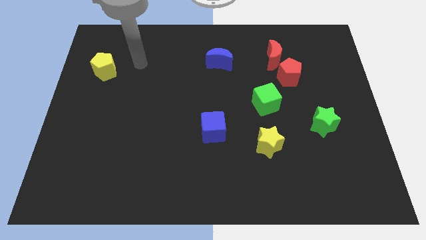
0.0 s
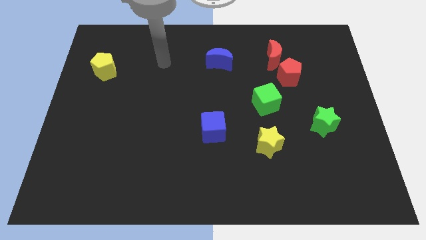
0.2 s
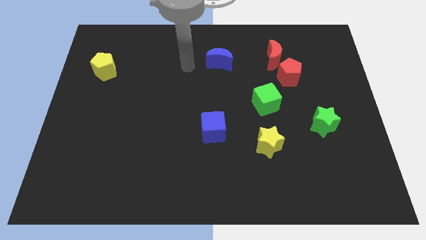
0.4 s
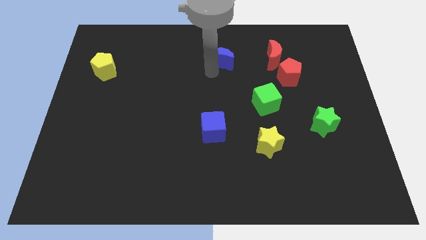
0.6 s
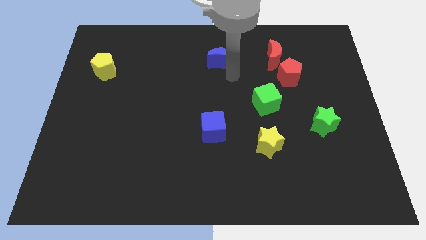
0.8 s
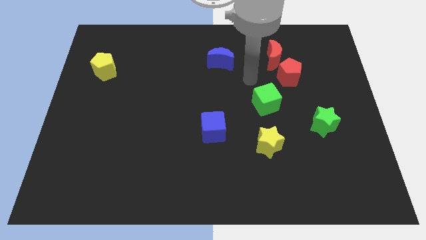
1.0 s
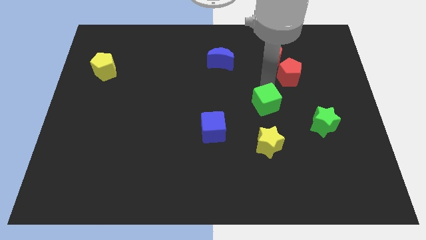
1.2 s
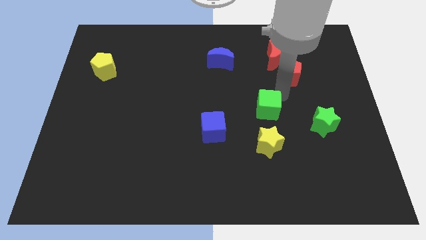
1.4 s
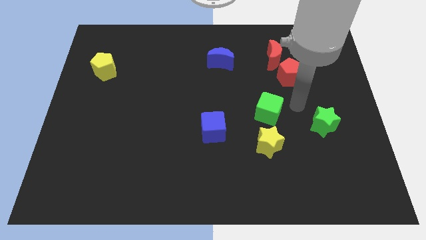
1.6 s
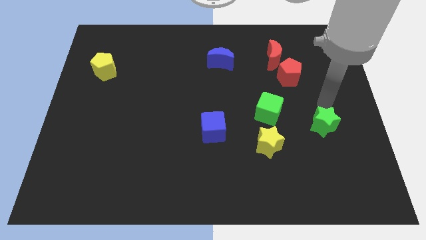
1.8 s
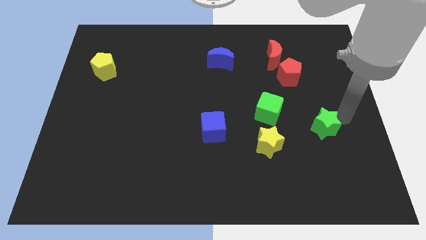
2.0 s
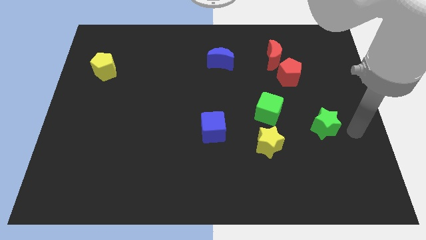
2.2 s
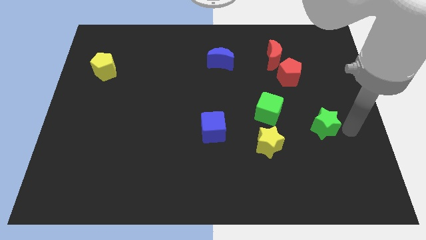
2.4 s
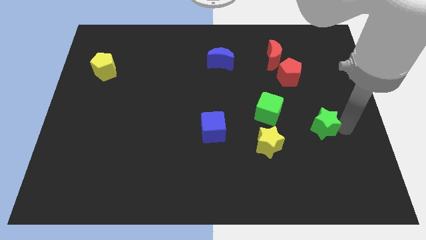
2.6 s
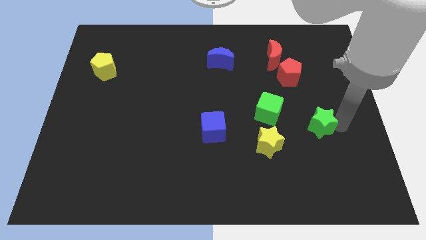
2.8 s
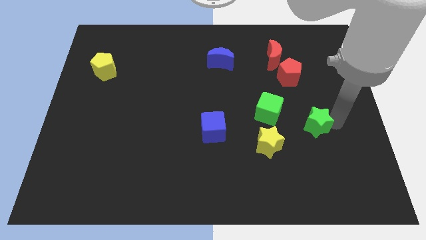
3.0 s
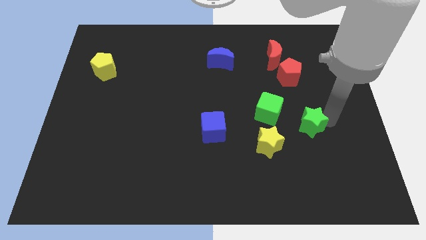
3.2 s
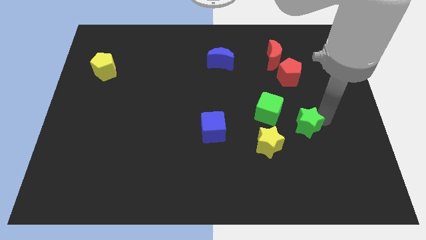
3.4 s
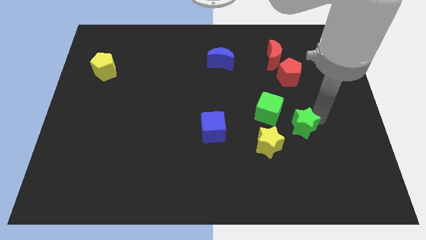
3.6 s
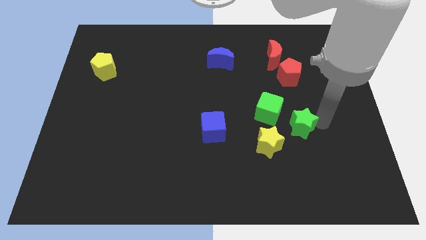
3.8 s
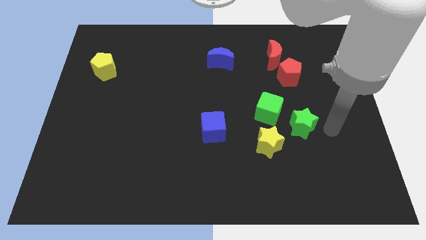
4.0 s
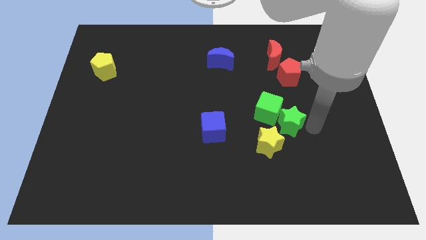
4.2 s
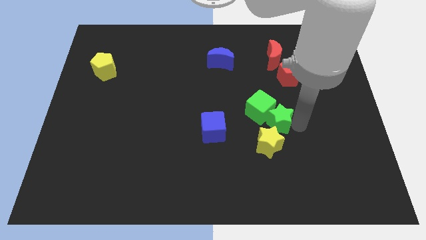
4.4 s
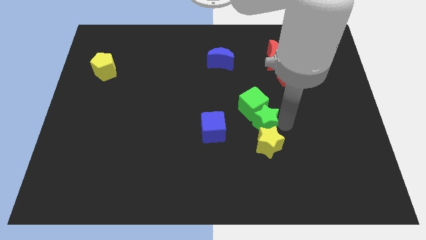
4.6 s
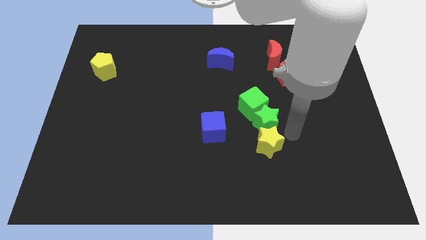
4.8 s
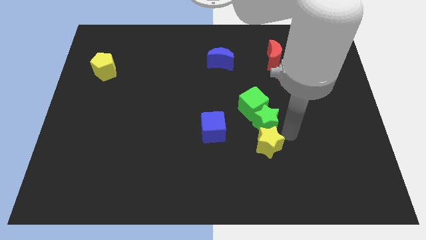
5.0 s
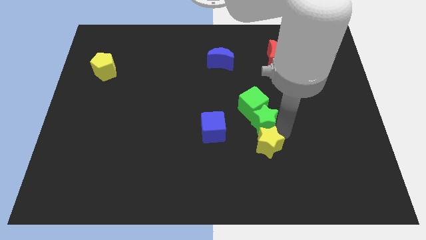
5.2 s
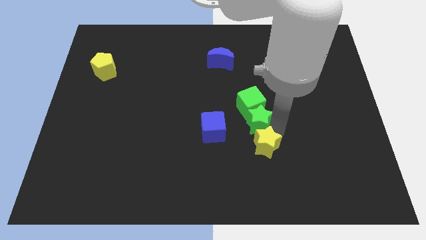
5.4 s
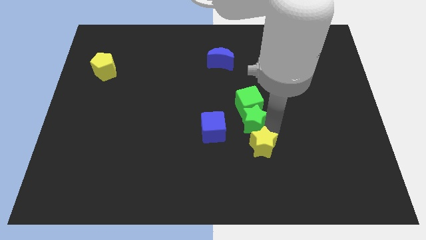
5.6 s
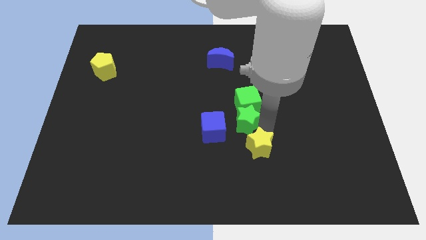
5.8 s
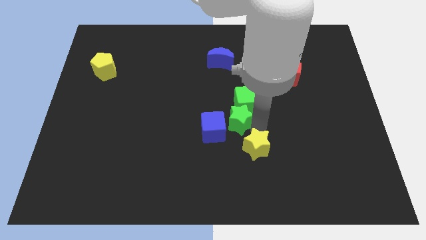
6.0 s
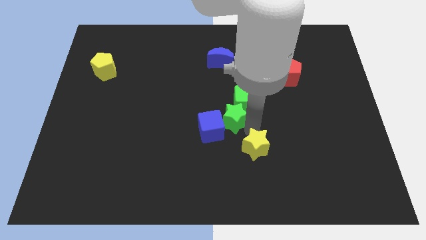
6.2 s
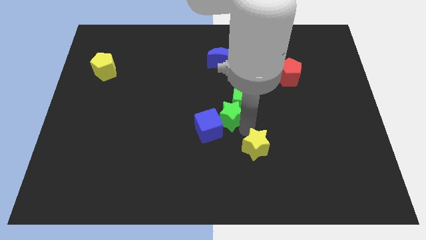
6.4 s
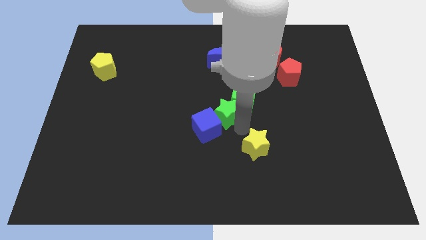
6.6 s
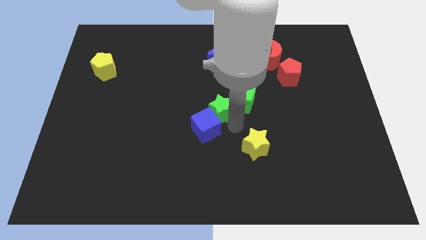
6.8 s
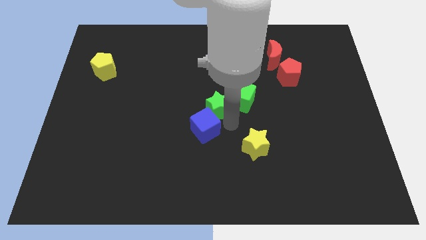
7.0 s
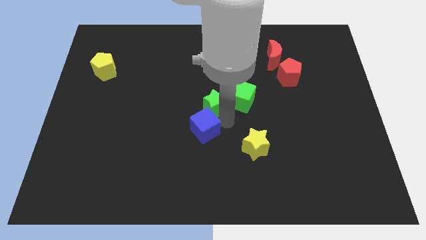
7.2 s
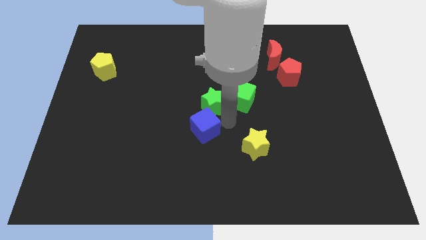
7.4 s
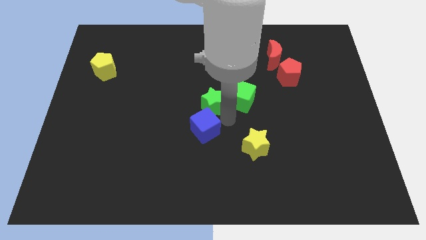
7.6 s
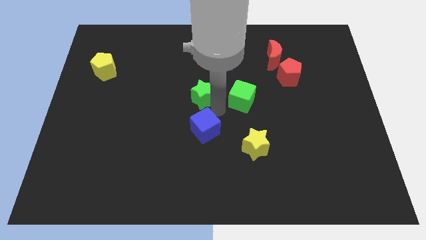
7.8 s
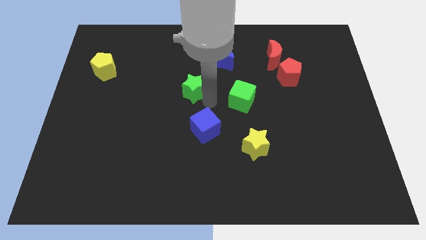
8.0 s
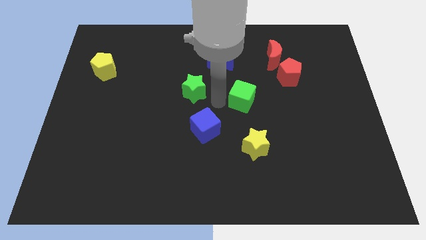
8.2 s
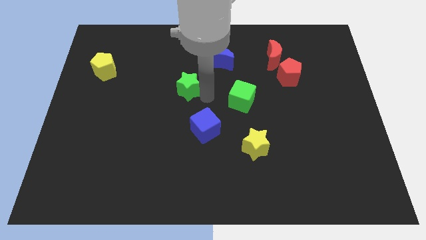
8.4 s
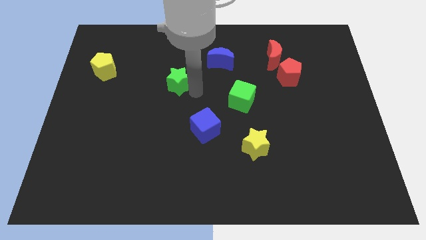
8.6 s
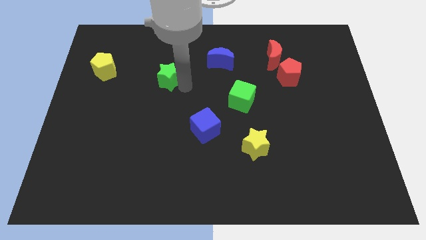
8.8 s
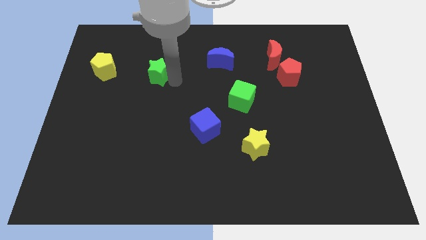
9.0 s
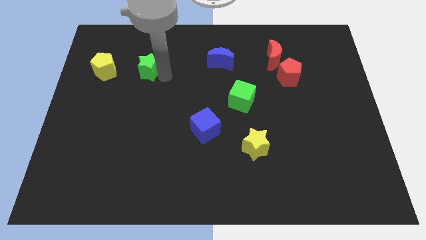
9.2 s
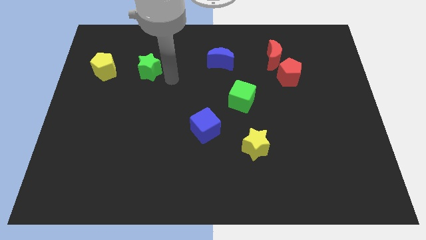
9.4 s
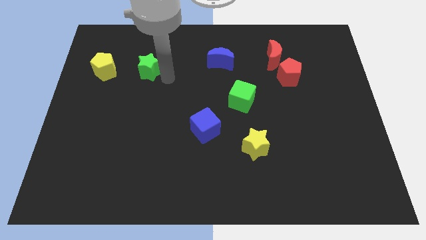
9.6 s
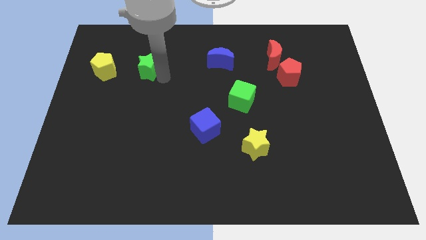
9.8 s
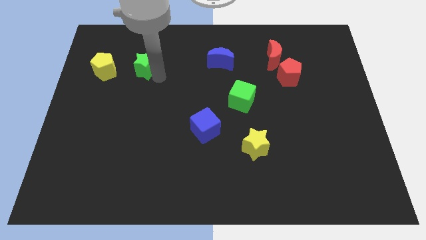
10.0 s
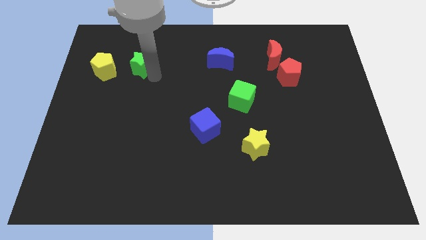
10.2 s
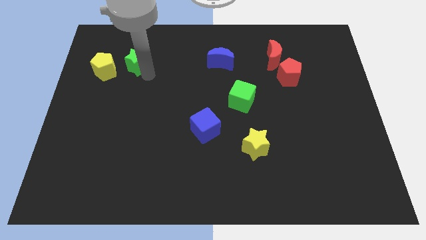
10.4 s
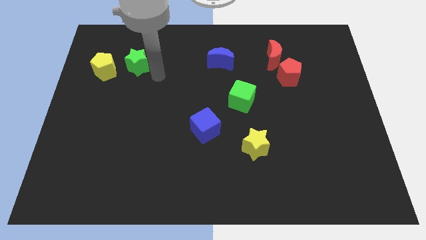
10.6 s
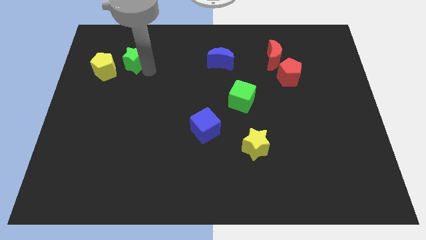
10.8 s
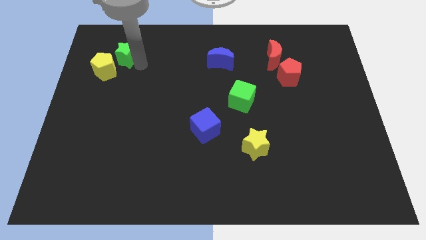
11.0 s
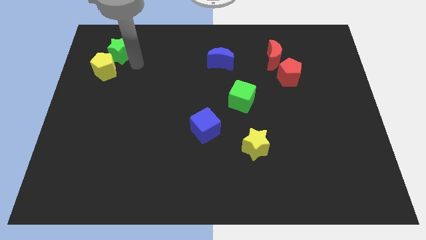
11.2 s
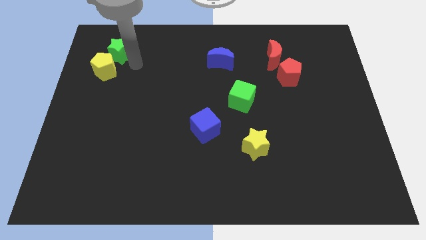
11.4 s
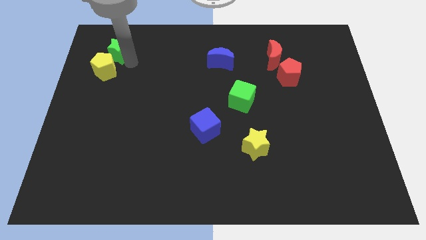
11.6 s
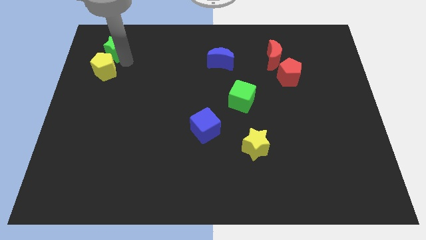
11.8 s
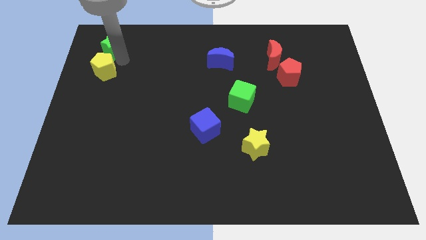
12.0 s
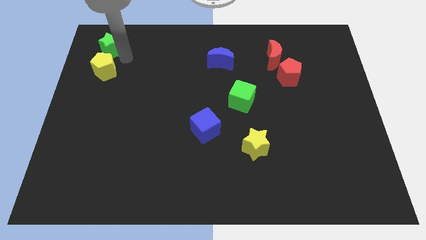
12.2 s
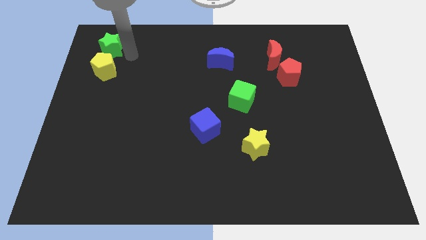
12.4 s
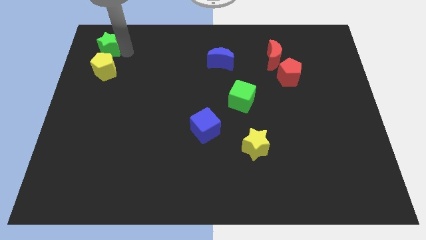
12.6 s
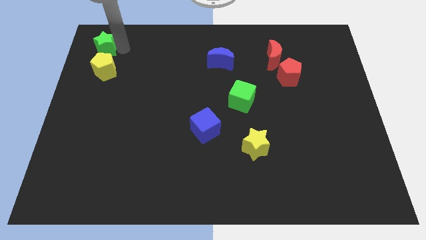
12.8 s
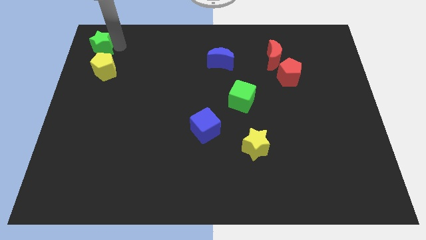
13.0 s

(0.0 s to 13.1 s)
move the green star to the top left of the board

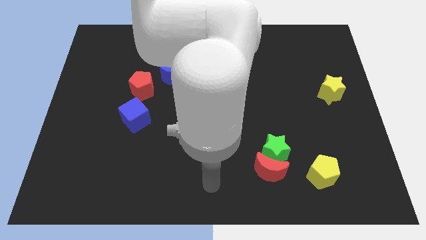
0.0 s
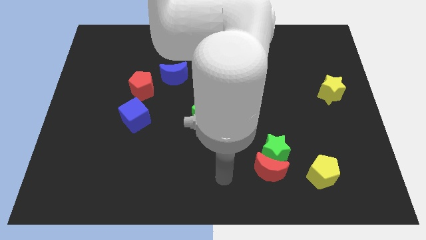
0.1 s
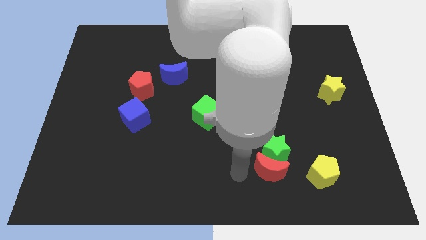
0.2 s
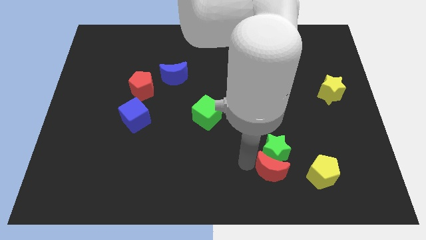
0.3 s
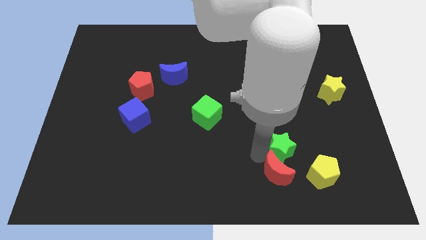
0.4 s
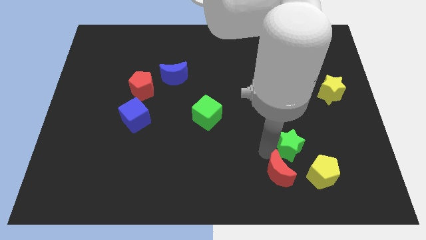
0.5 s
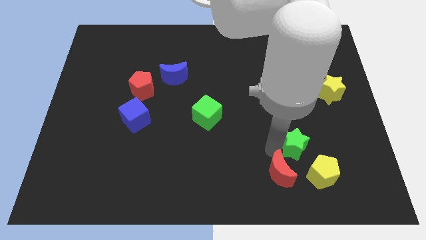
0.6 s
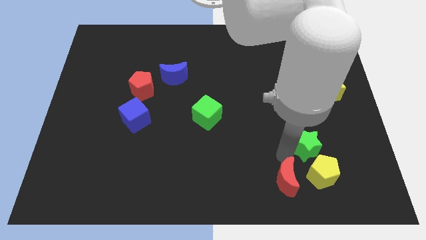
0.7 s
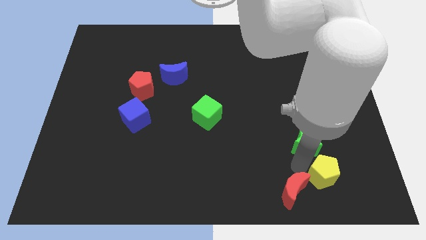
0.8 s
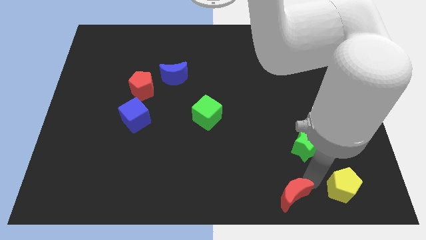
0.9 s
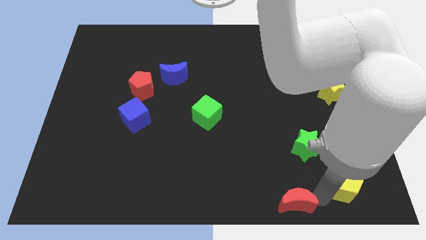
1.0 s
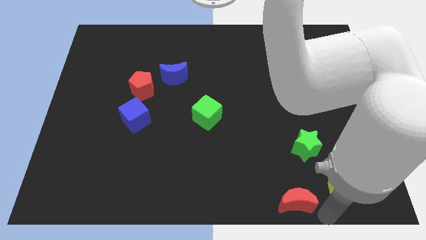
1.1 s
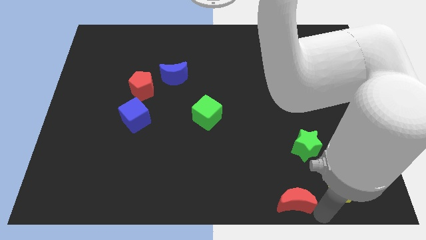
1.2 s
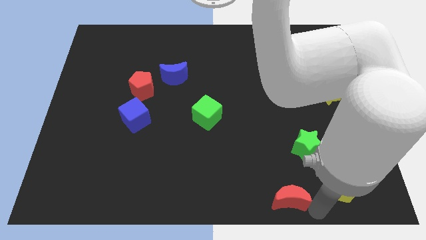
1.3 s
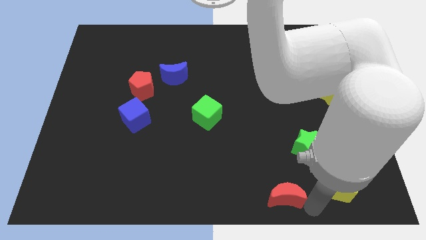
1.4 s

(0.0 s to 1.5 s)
move the red moon to the bottom side

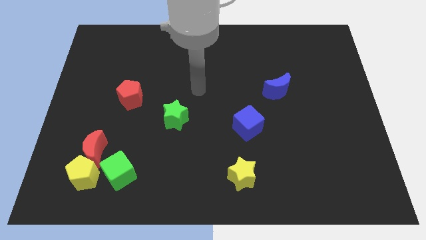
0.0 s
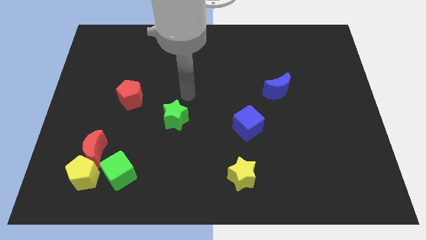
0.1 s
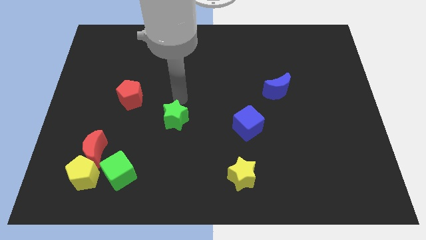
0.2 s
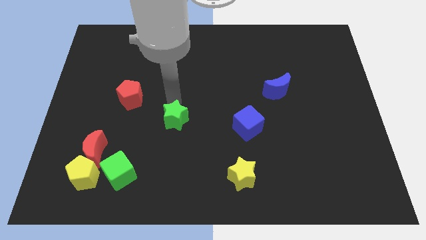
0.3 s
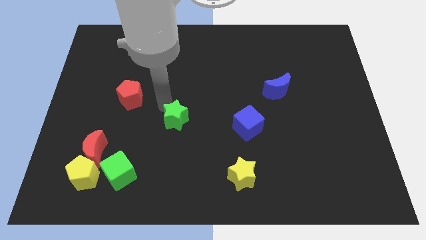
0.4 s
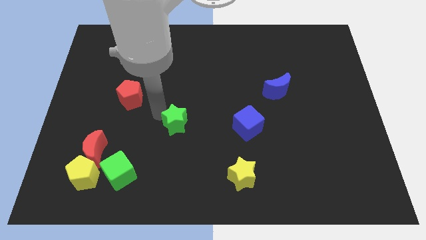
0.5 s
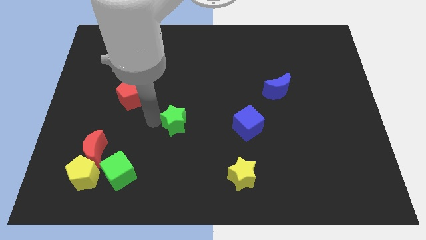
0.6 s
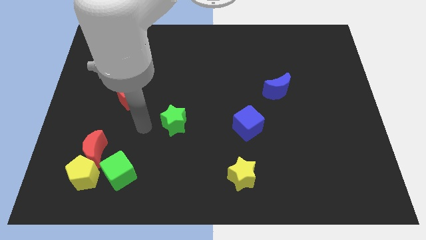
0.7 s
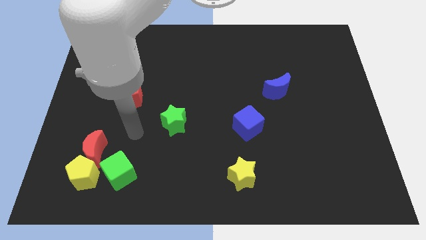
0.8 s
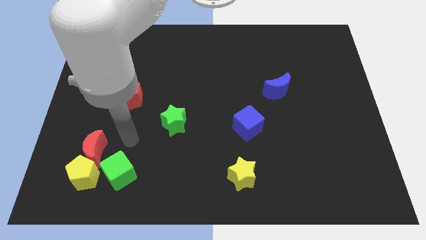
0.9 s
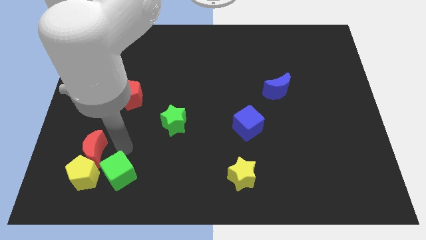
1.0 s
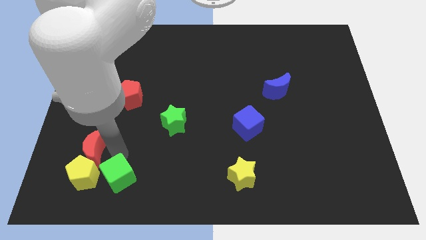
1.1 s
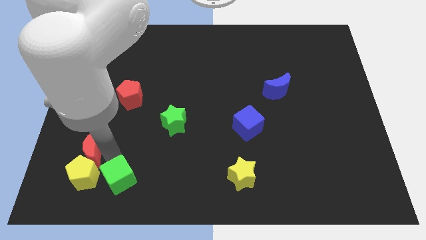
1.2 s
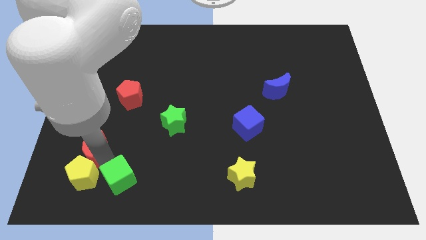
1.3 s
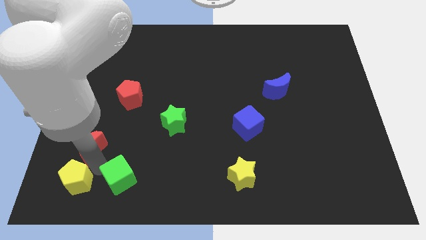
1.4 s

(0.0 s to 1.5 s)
put the yellow pentagon to the bottom left
